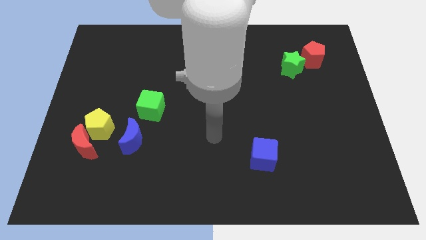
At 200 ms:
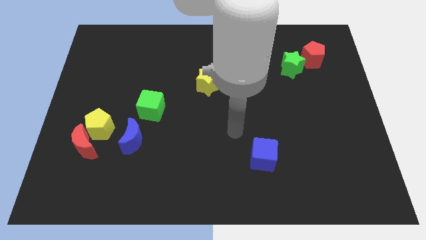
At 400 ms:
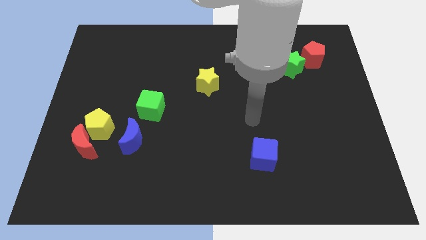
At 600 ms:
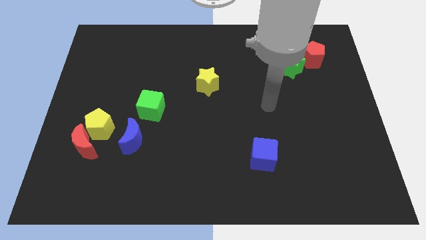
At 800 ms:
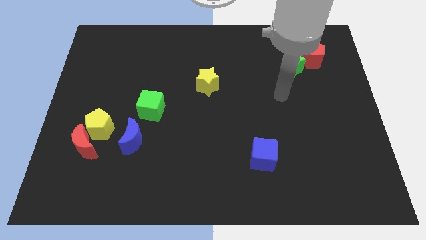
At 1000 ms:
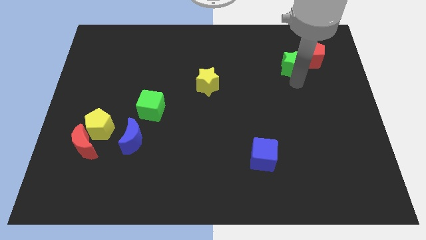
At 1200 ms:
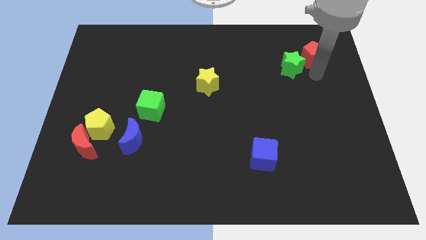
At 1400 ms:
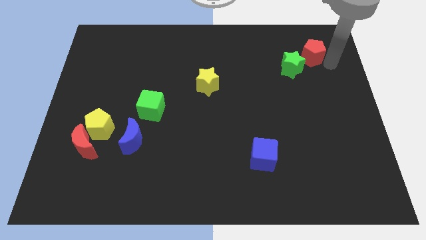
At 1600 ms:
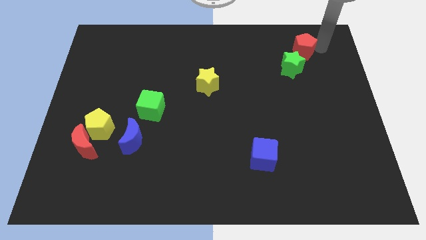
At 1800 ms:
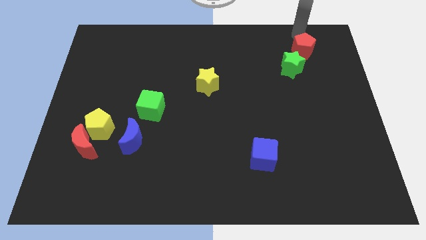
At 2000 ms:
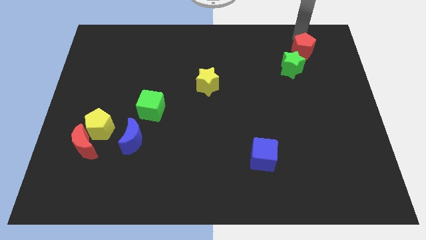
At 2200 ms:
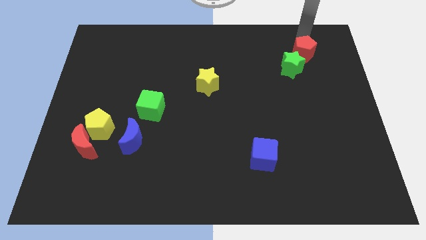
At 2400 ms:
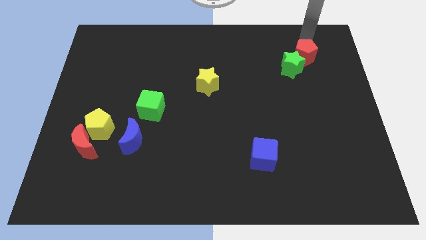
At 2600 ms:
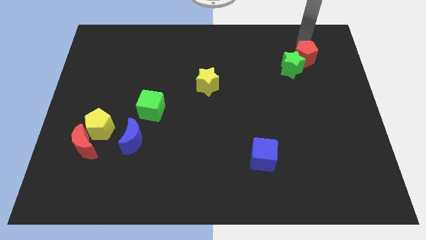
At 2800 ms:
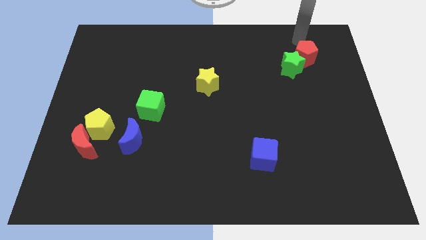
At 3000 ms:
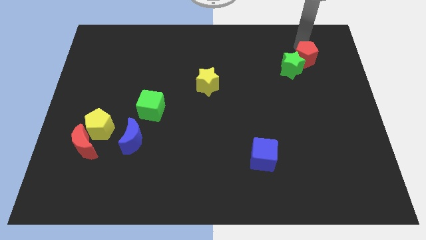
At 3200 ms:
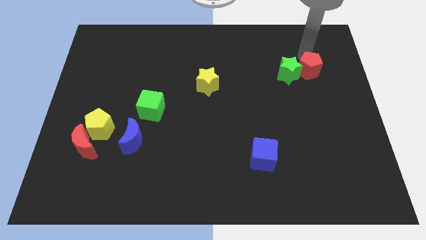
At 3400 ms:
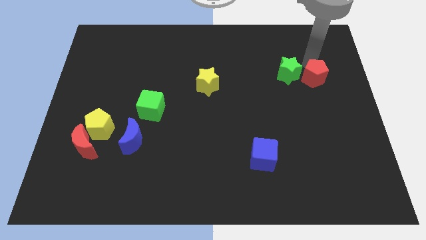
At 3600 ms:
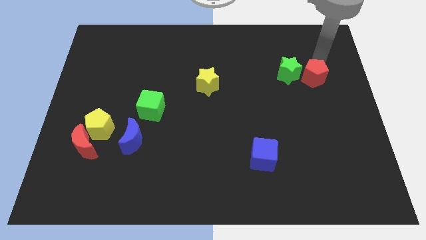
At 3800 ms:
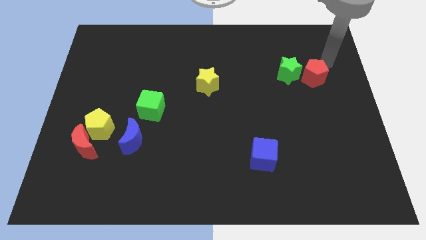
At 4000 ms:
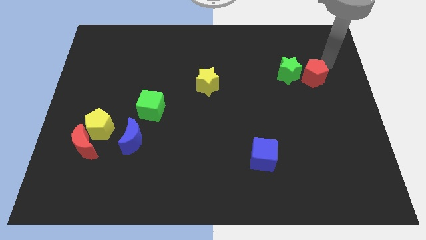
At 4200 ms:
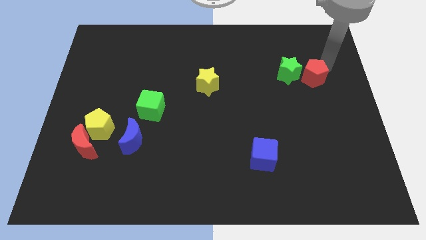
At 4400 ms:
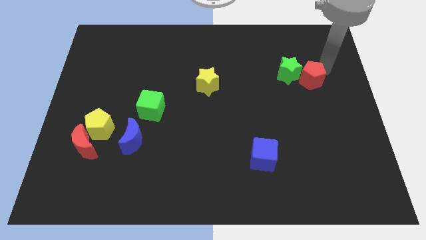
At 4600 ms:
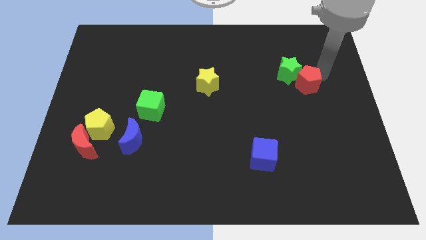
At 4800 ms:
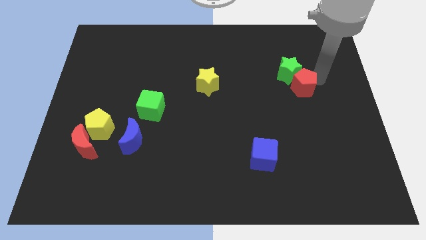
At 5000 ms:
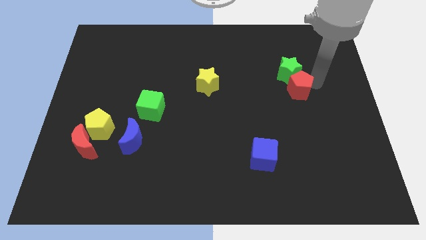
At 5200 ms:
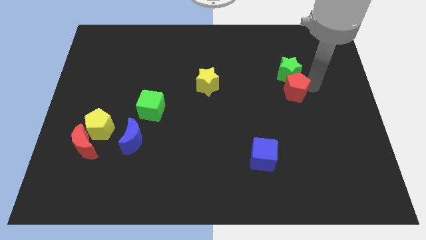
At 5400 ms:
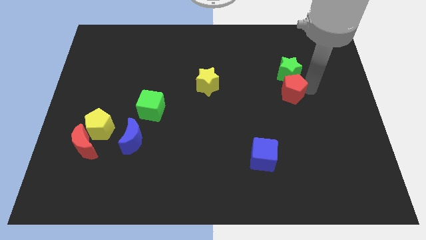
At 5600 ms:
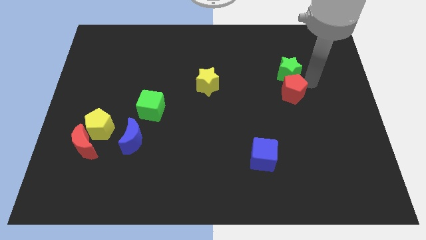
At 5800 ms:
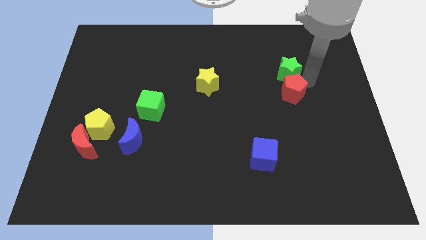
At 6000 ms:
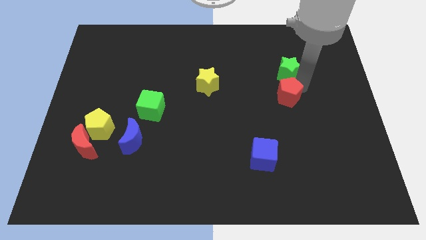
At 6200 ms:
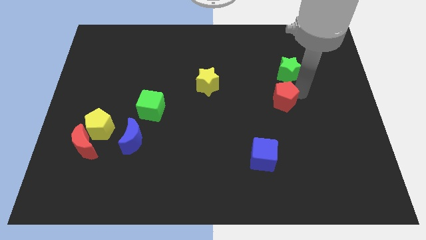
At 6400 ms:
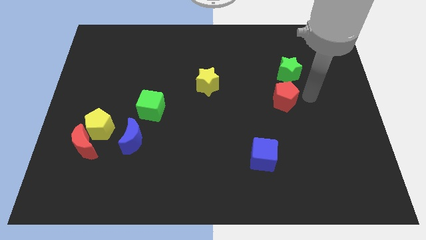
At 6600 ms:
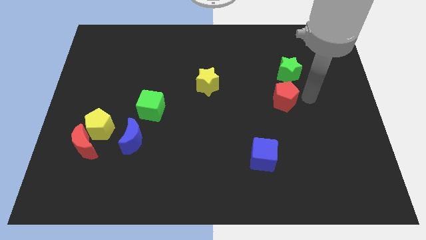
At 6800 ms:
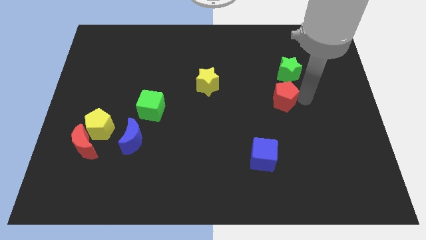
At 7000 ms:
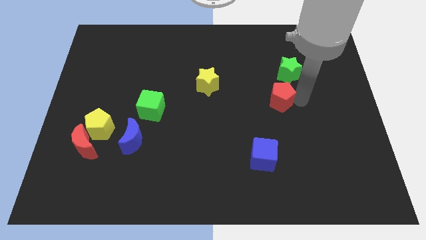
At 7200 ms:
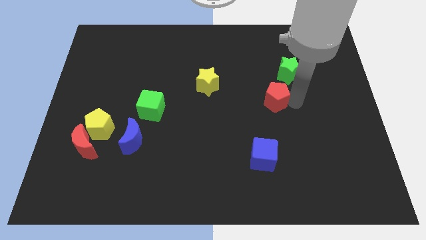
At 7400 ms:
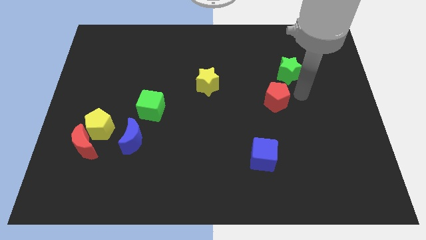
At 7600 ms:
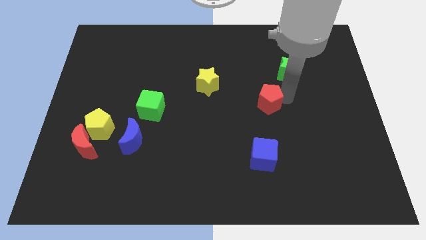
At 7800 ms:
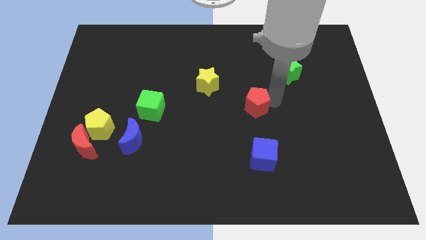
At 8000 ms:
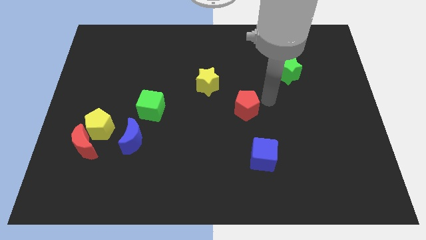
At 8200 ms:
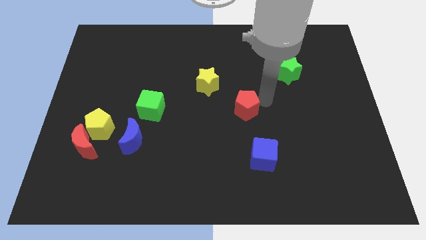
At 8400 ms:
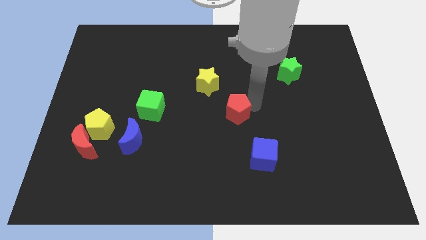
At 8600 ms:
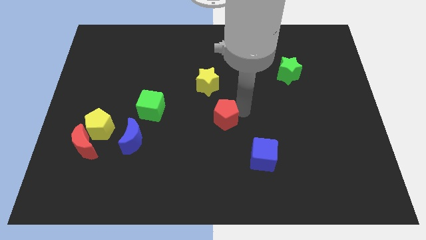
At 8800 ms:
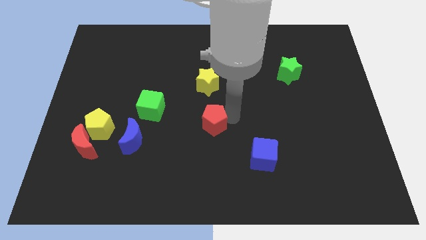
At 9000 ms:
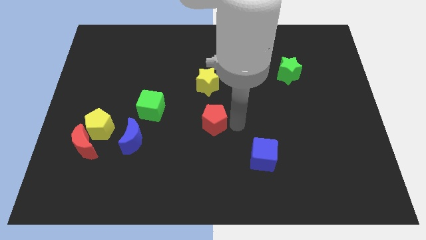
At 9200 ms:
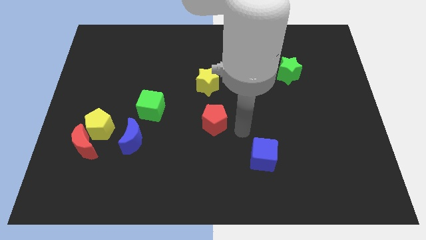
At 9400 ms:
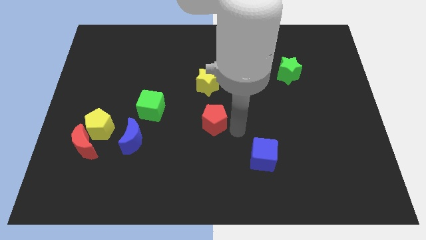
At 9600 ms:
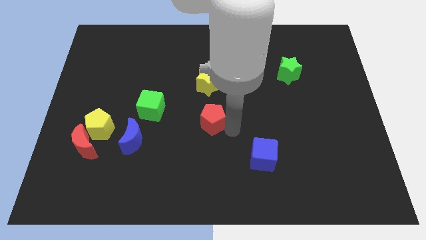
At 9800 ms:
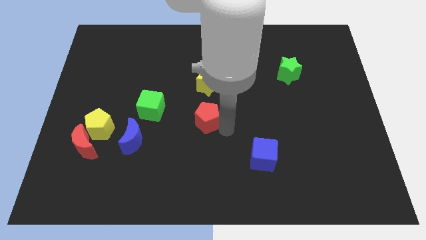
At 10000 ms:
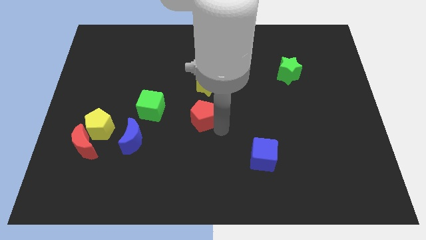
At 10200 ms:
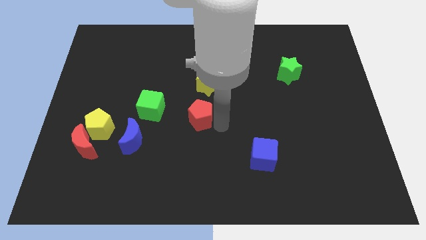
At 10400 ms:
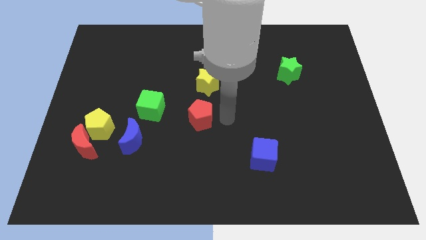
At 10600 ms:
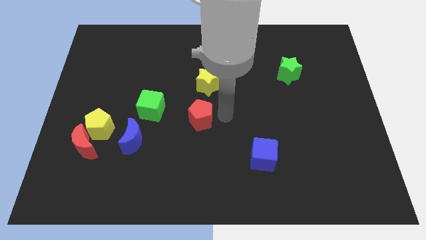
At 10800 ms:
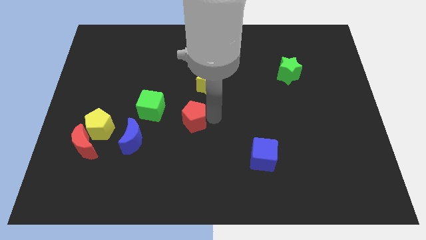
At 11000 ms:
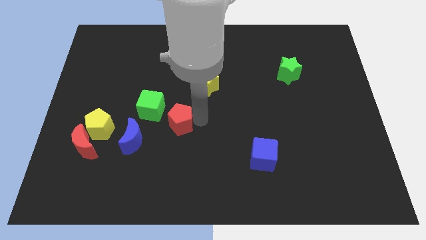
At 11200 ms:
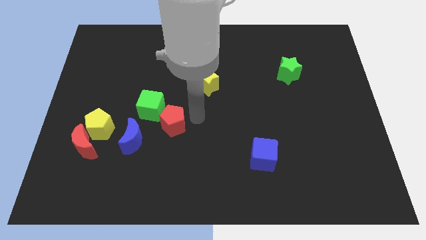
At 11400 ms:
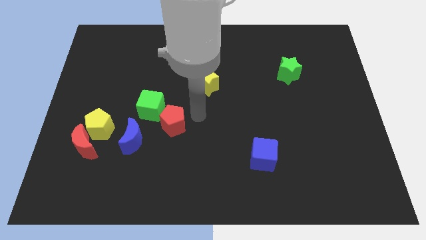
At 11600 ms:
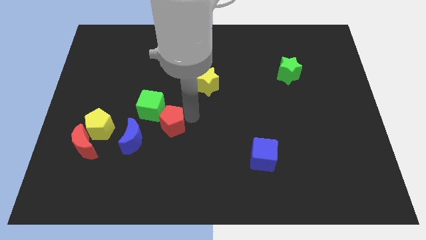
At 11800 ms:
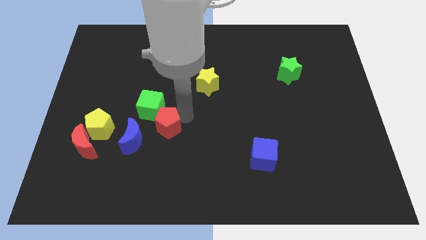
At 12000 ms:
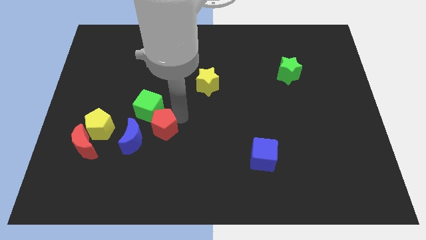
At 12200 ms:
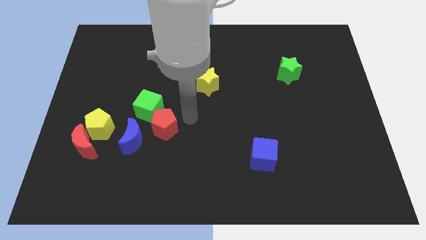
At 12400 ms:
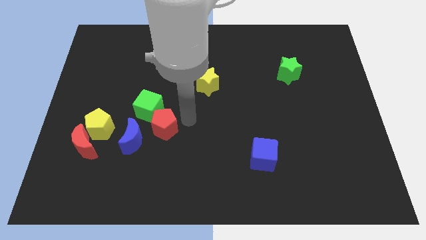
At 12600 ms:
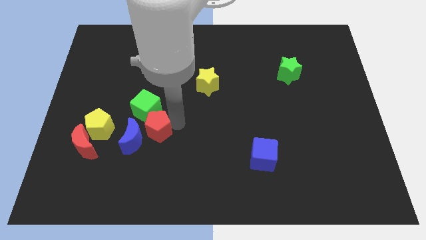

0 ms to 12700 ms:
put the red pentagon close to the blue moon

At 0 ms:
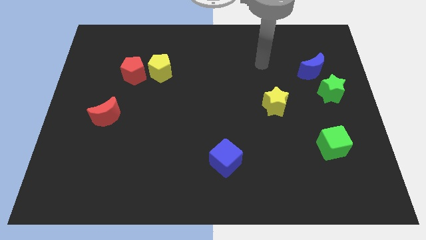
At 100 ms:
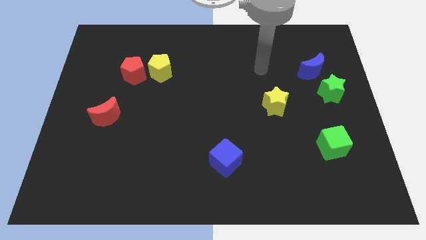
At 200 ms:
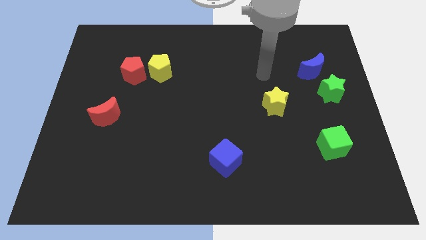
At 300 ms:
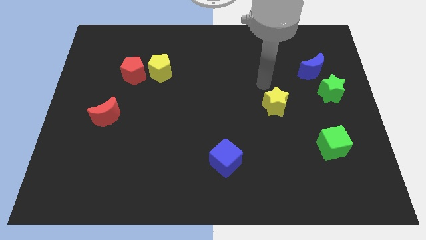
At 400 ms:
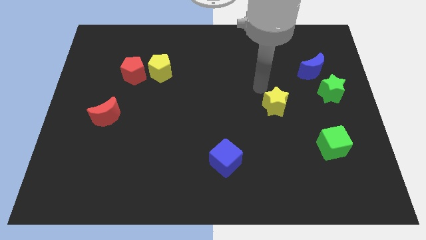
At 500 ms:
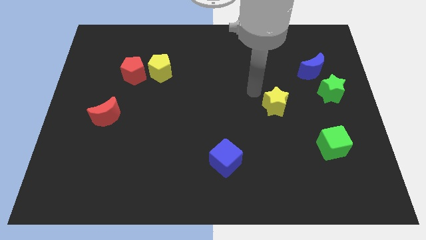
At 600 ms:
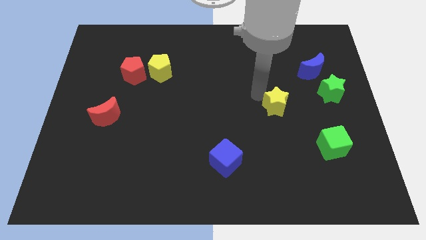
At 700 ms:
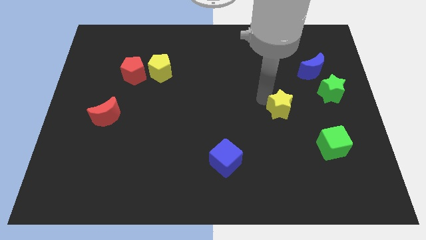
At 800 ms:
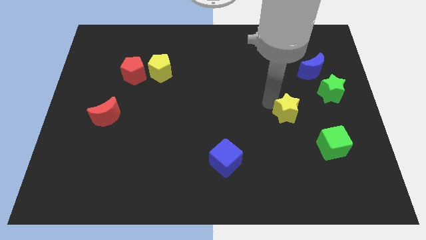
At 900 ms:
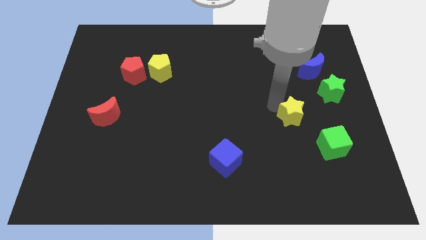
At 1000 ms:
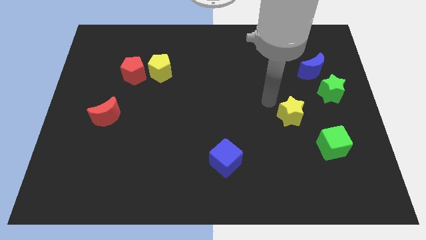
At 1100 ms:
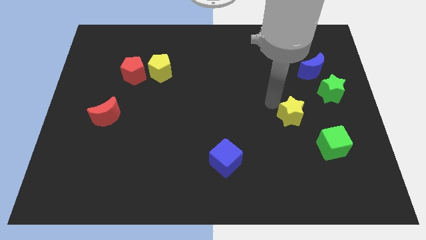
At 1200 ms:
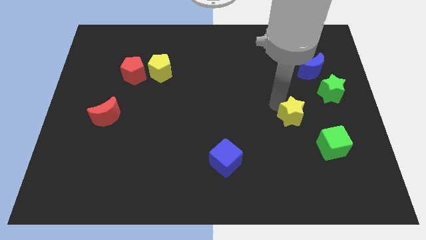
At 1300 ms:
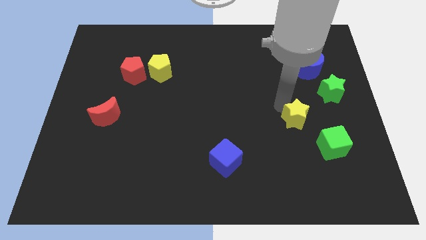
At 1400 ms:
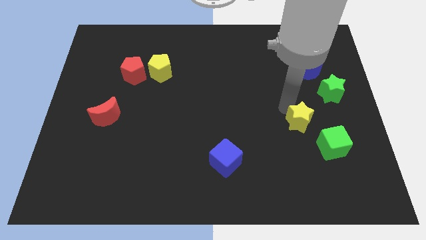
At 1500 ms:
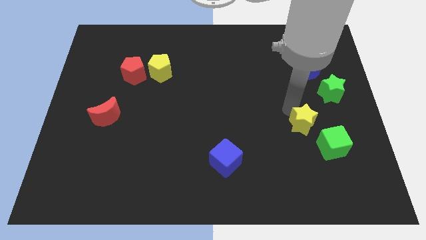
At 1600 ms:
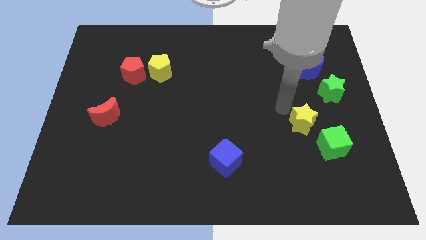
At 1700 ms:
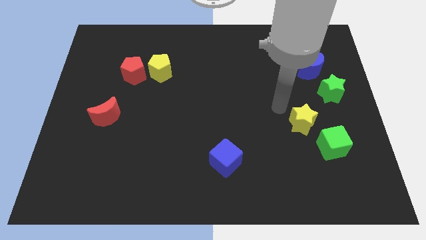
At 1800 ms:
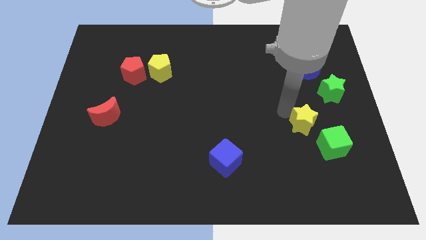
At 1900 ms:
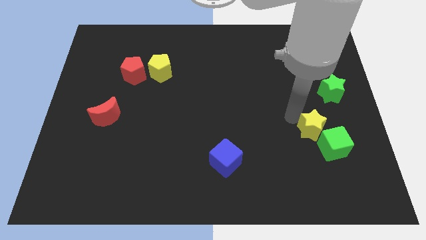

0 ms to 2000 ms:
move the yellow star close to the green cube
